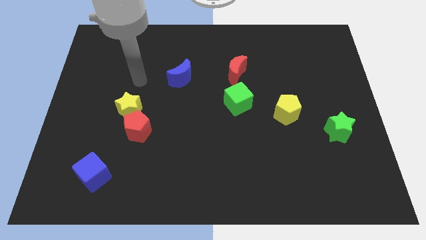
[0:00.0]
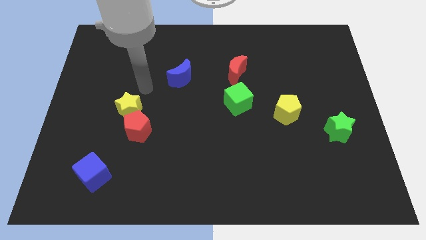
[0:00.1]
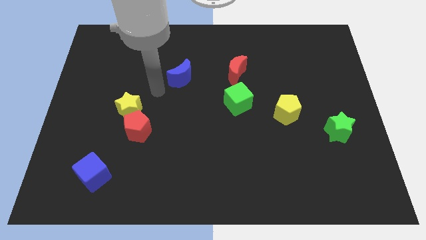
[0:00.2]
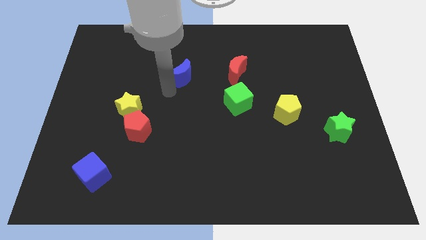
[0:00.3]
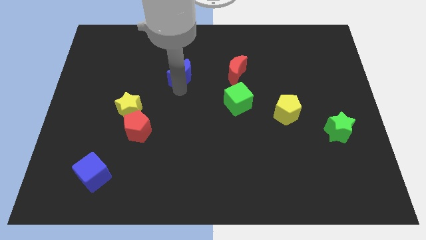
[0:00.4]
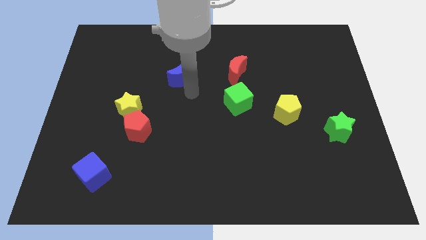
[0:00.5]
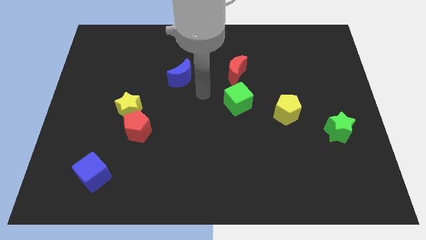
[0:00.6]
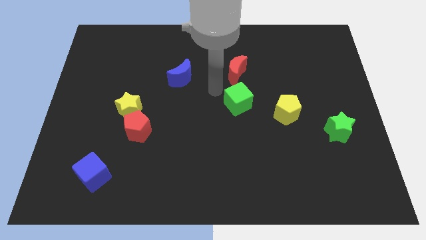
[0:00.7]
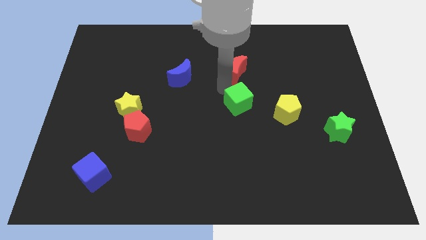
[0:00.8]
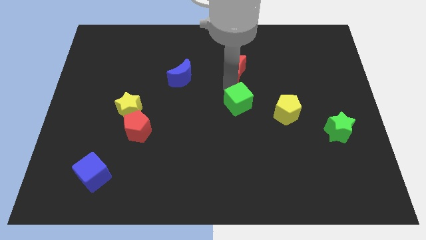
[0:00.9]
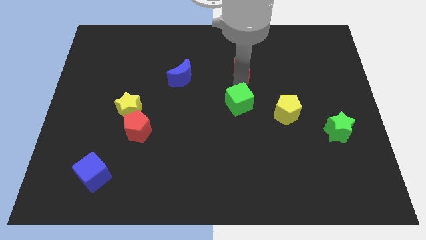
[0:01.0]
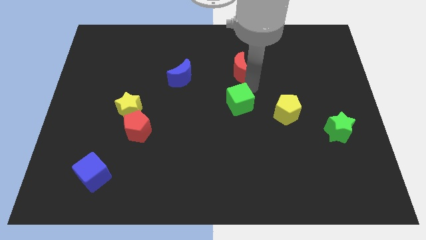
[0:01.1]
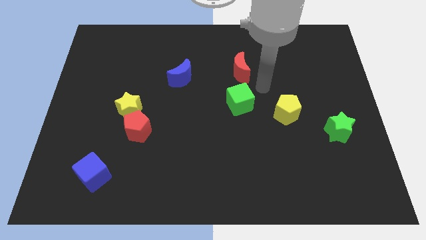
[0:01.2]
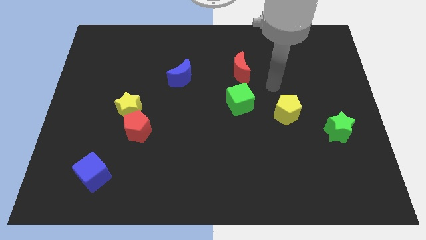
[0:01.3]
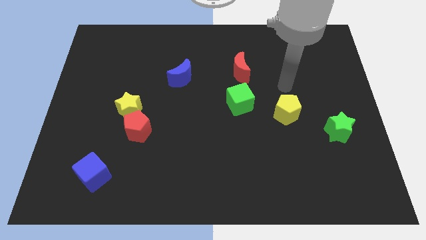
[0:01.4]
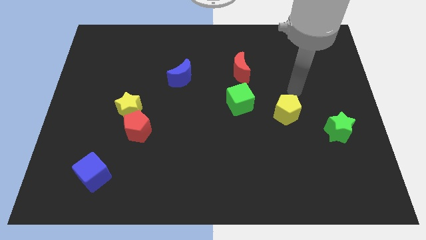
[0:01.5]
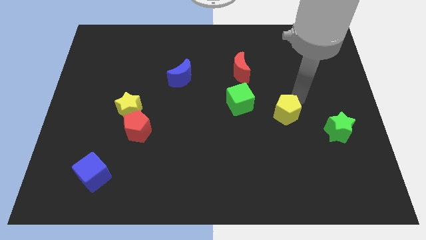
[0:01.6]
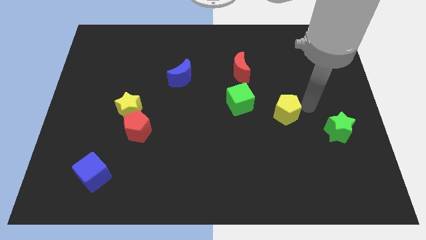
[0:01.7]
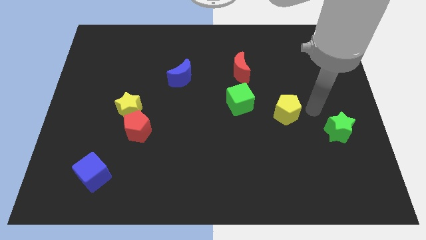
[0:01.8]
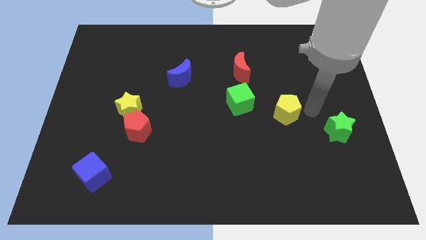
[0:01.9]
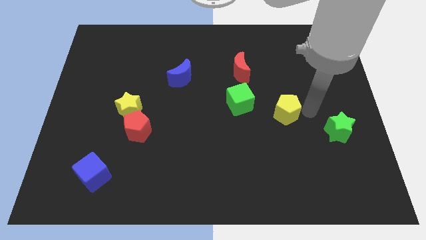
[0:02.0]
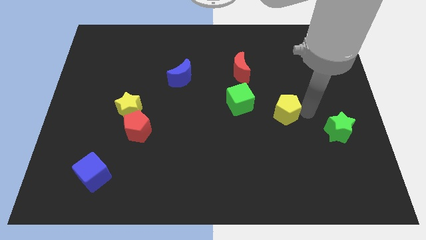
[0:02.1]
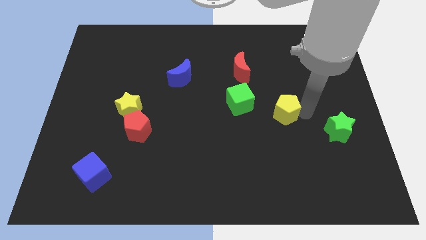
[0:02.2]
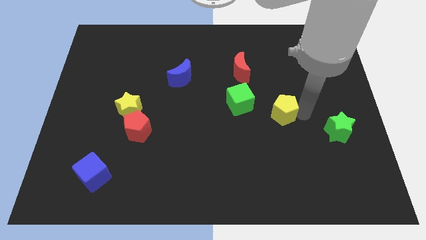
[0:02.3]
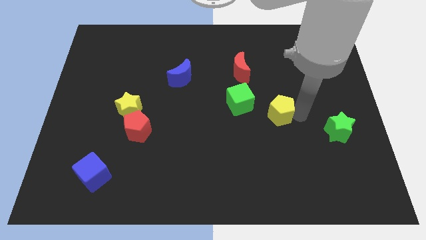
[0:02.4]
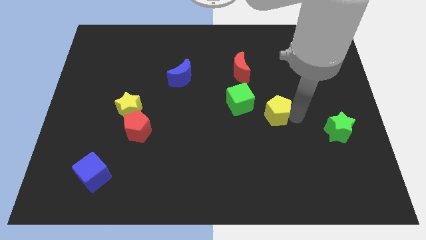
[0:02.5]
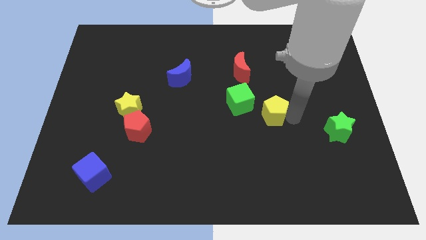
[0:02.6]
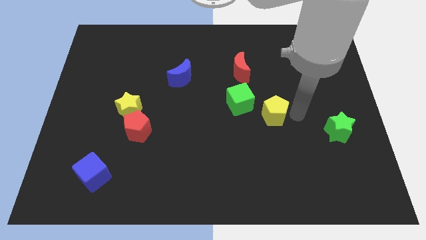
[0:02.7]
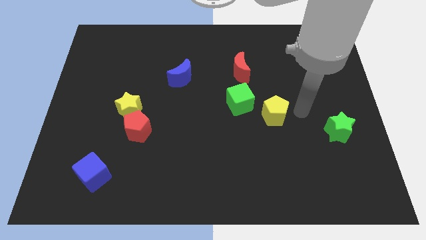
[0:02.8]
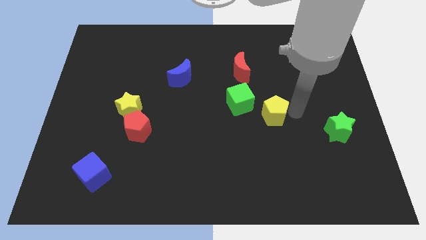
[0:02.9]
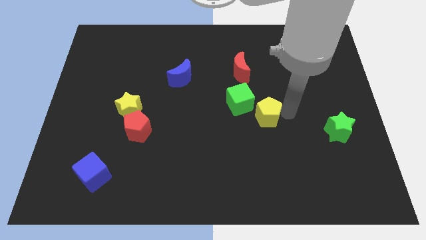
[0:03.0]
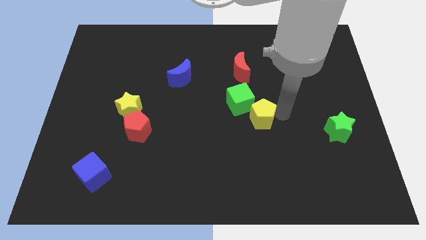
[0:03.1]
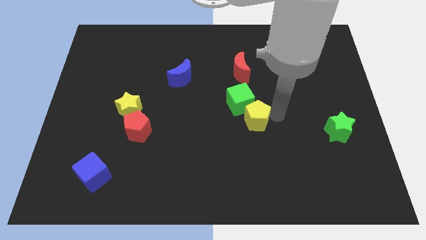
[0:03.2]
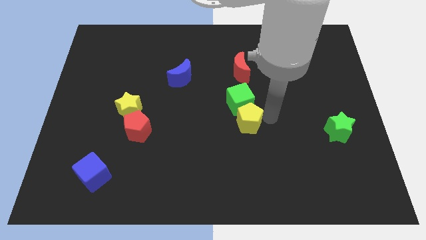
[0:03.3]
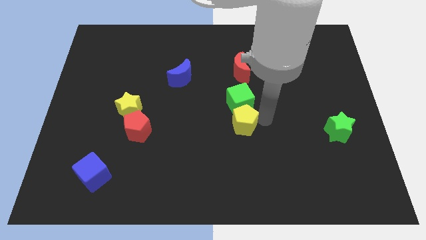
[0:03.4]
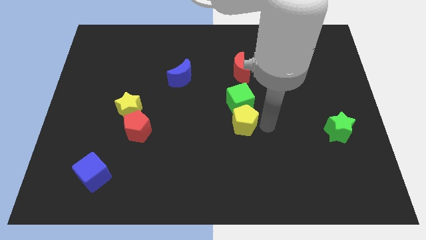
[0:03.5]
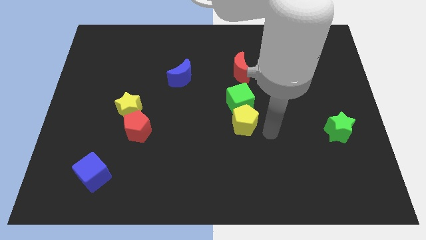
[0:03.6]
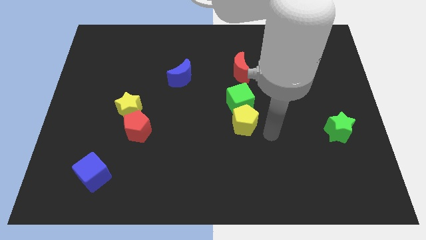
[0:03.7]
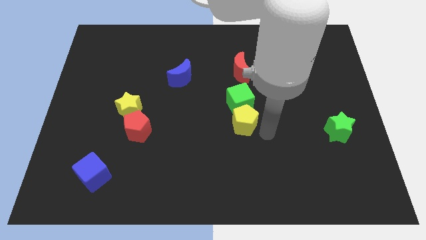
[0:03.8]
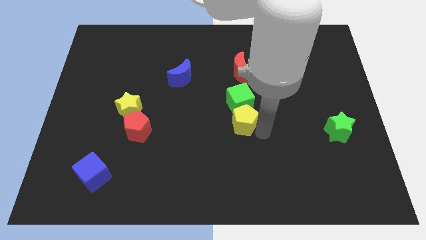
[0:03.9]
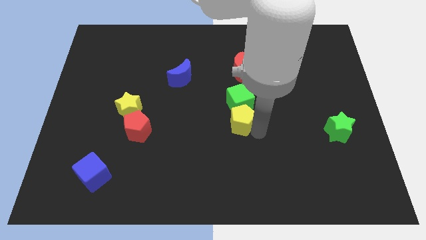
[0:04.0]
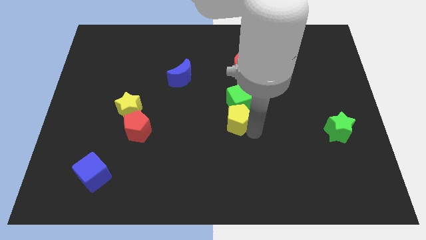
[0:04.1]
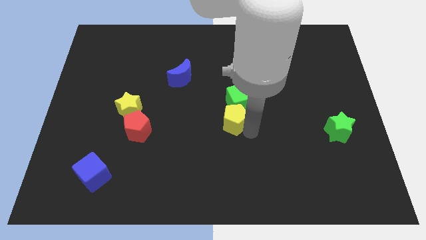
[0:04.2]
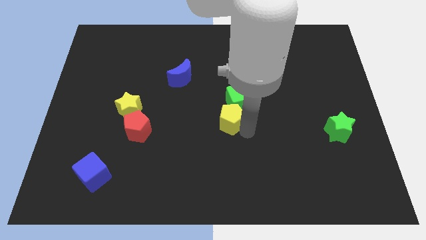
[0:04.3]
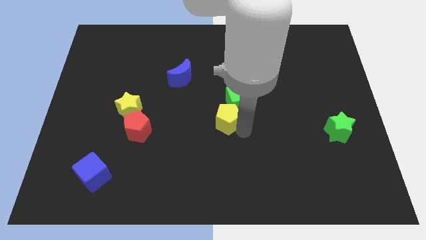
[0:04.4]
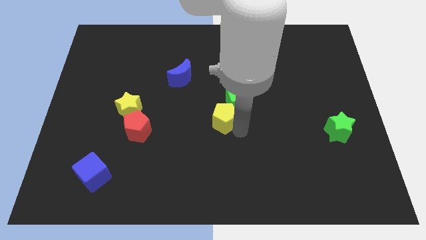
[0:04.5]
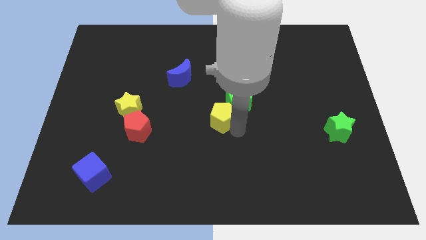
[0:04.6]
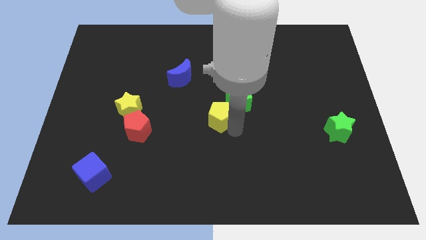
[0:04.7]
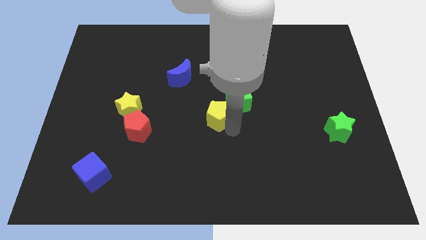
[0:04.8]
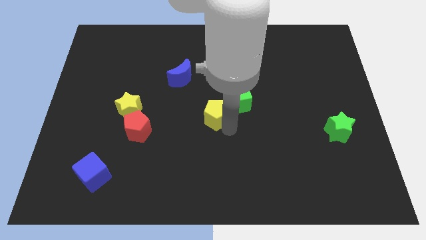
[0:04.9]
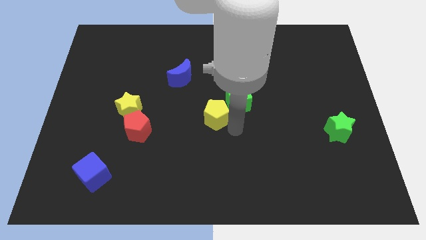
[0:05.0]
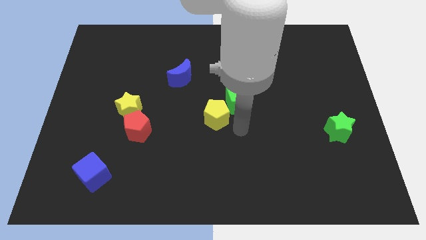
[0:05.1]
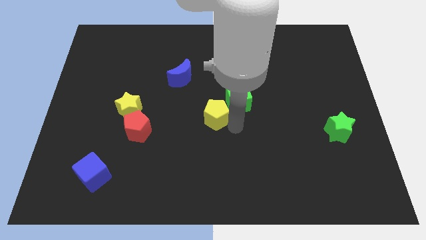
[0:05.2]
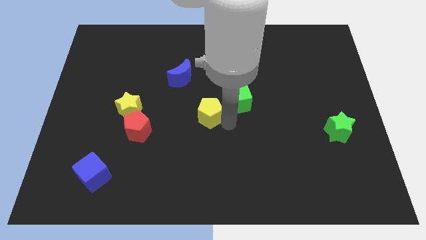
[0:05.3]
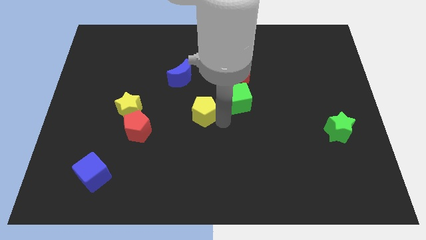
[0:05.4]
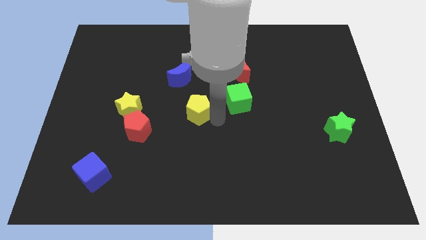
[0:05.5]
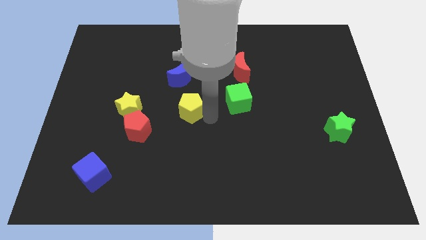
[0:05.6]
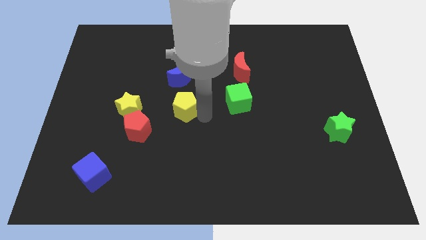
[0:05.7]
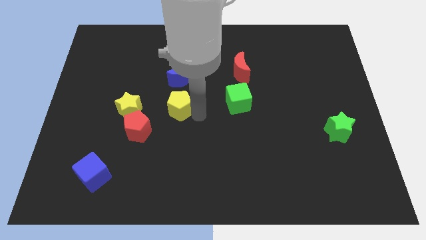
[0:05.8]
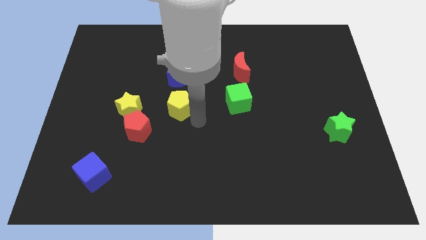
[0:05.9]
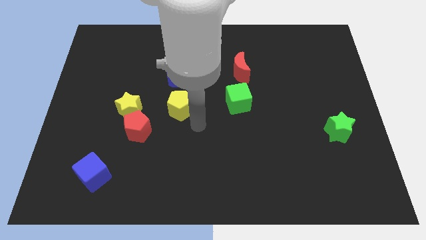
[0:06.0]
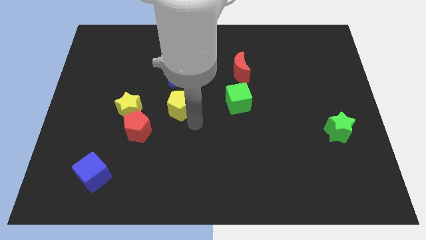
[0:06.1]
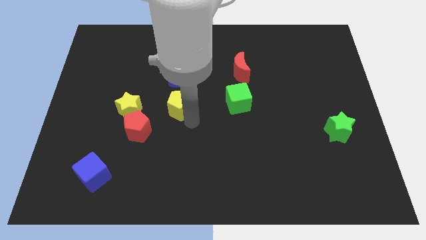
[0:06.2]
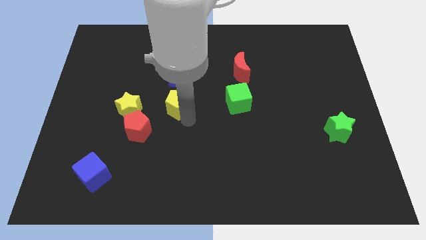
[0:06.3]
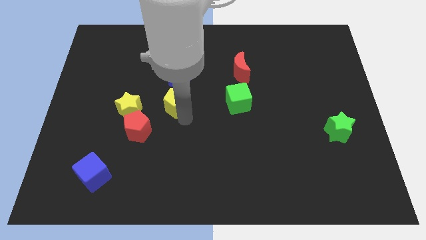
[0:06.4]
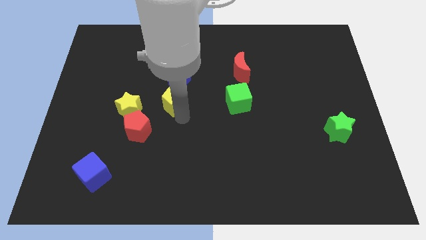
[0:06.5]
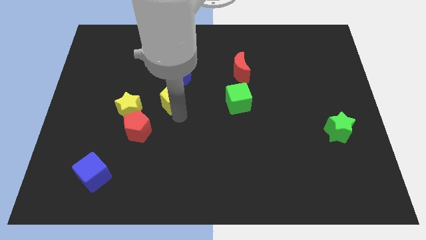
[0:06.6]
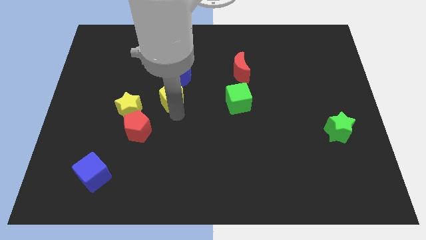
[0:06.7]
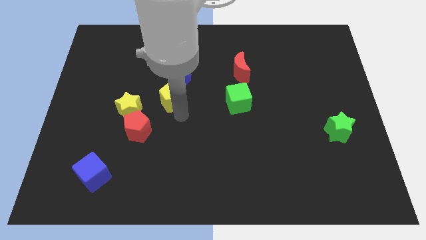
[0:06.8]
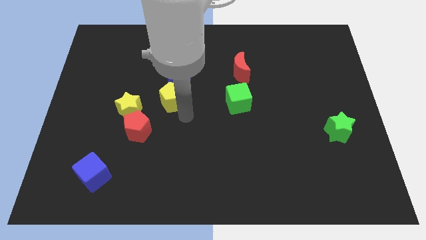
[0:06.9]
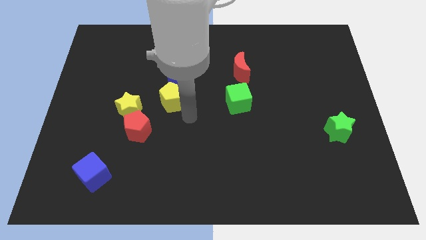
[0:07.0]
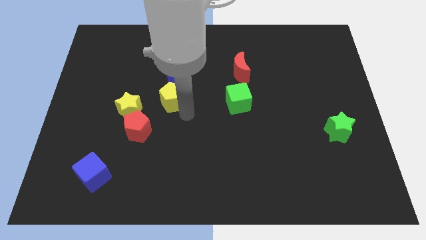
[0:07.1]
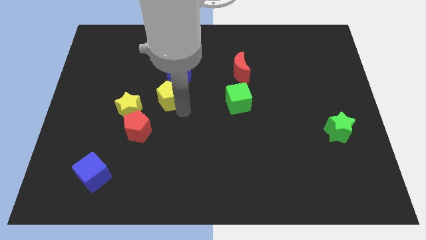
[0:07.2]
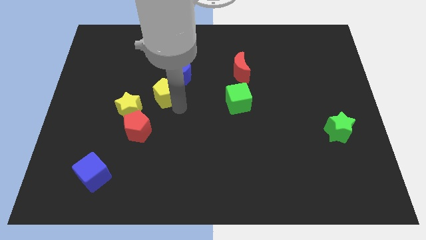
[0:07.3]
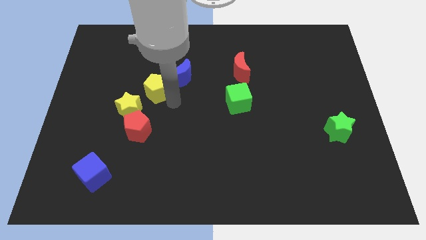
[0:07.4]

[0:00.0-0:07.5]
move the yellow pentagon just left of the blue moon

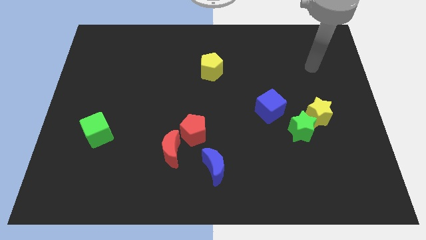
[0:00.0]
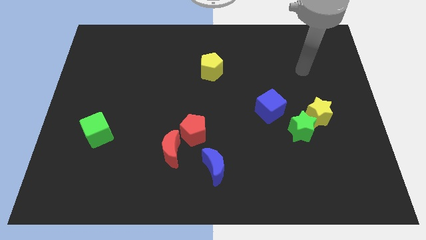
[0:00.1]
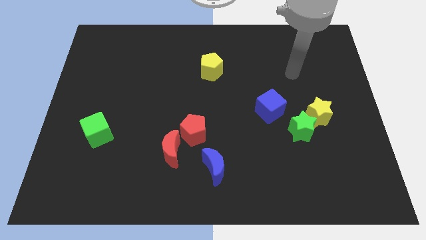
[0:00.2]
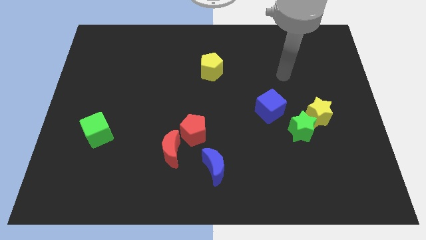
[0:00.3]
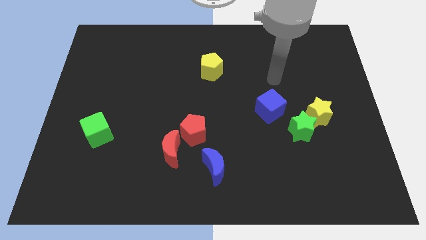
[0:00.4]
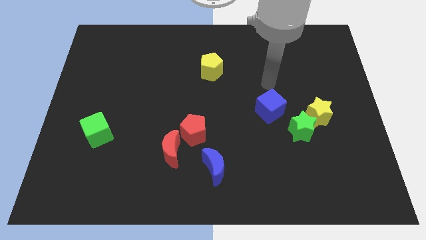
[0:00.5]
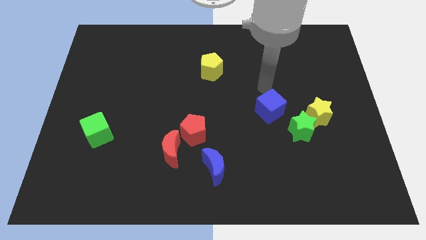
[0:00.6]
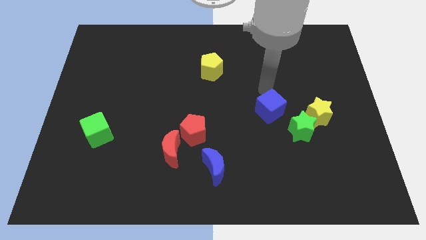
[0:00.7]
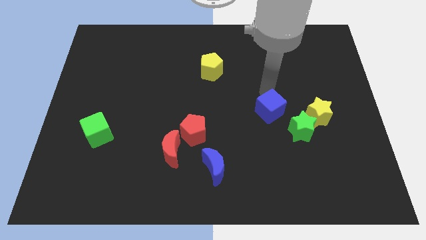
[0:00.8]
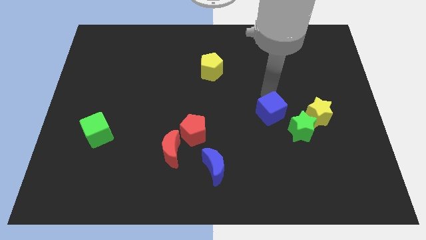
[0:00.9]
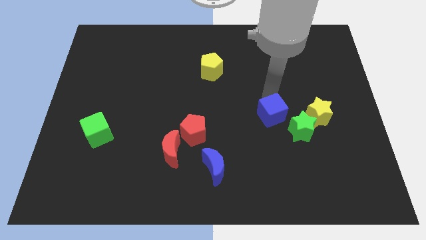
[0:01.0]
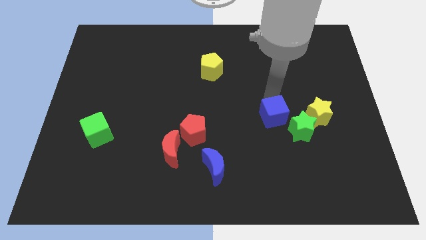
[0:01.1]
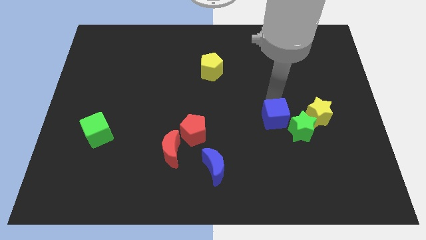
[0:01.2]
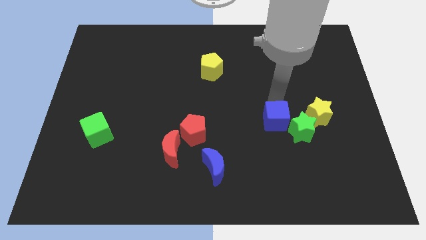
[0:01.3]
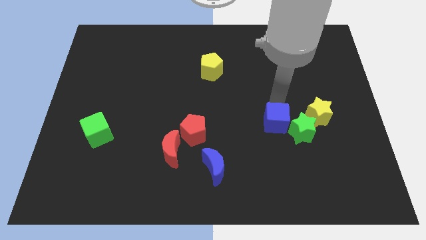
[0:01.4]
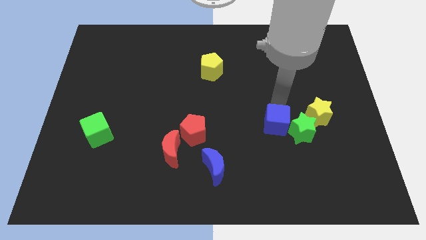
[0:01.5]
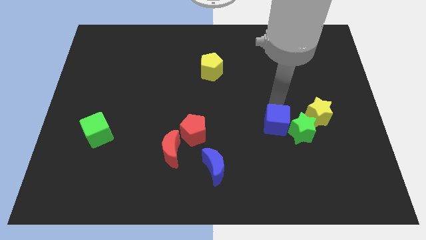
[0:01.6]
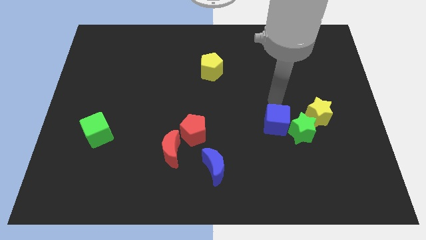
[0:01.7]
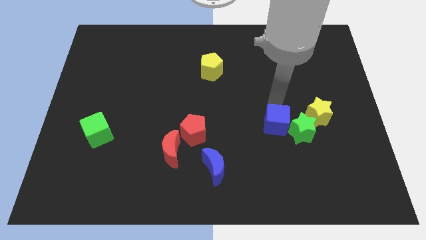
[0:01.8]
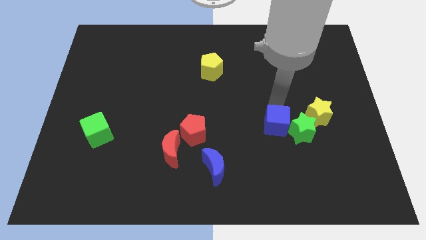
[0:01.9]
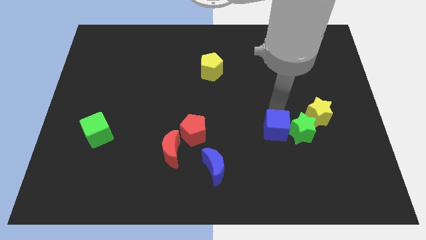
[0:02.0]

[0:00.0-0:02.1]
move the blue cube to the bottom left of the green star
